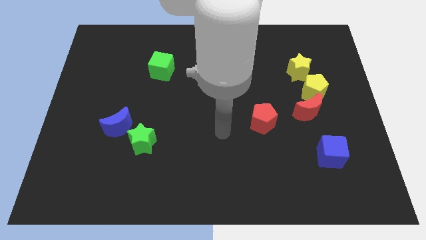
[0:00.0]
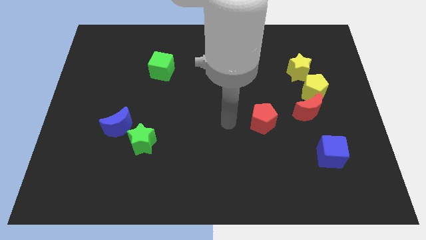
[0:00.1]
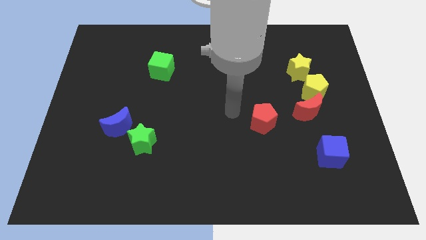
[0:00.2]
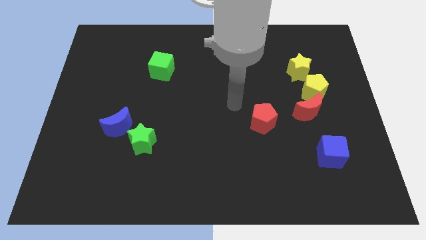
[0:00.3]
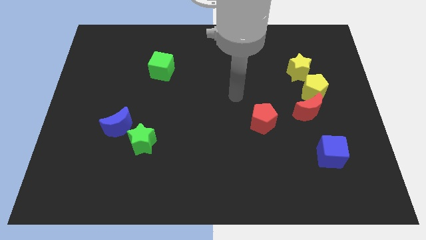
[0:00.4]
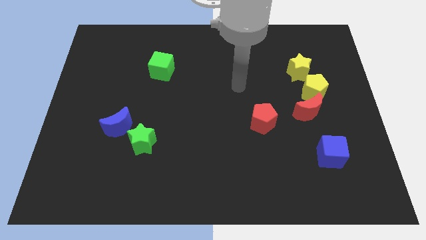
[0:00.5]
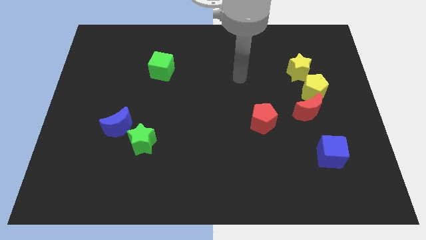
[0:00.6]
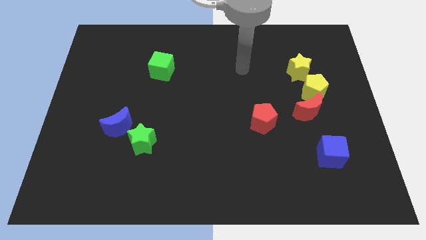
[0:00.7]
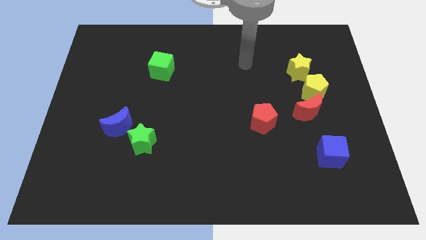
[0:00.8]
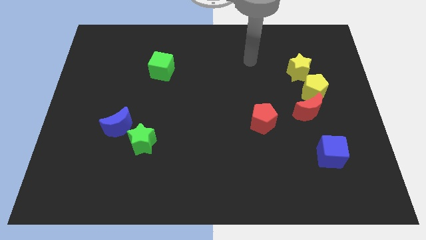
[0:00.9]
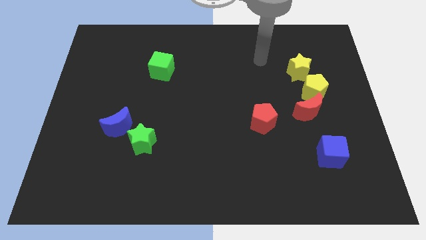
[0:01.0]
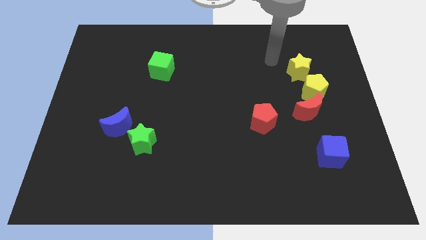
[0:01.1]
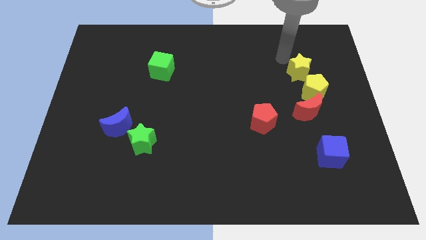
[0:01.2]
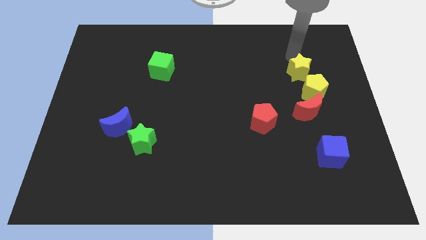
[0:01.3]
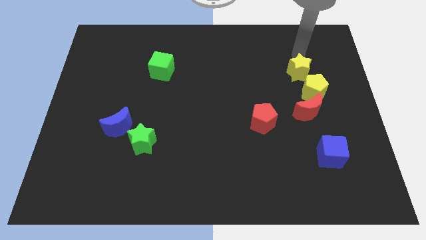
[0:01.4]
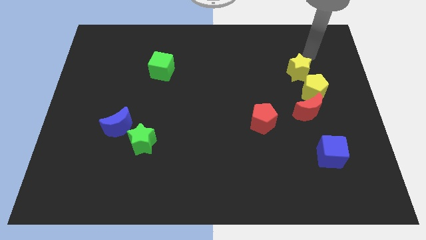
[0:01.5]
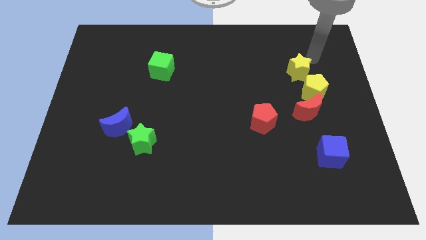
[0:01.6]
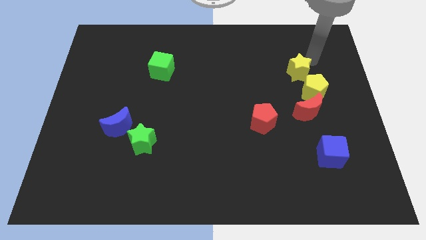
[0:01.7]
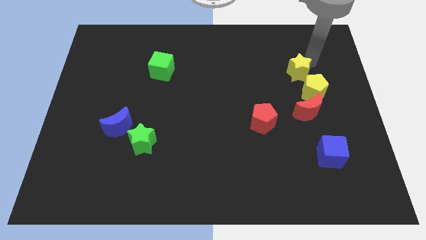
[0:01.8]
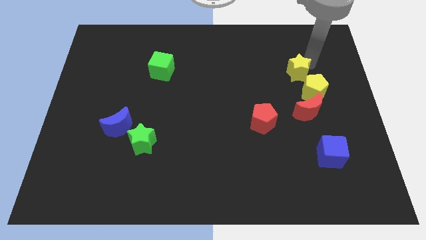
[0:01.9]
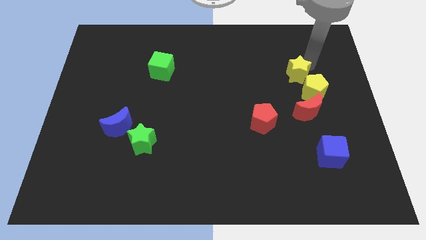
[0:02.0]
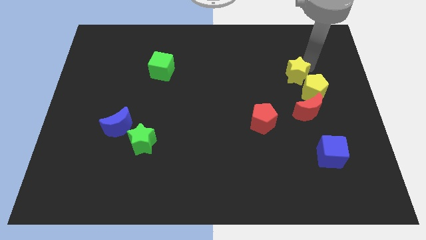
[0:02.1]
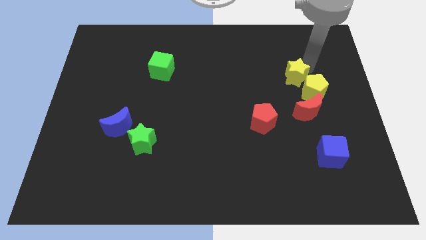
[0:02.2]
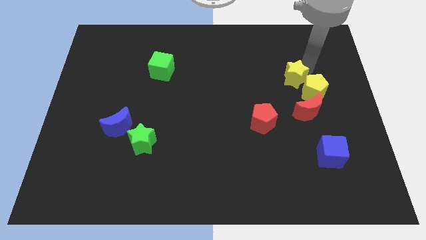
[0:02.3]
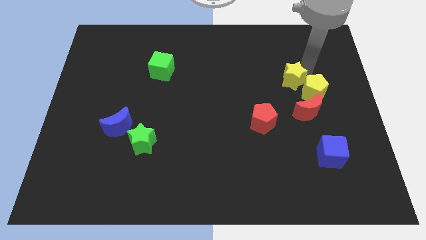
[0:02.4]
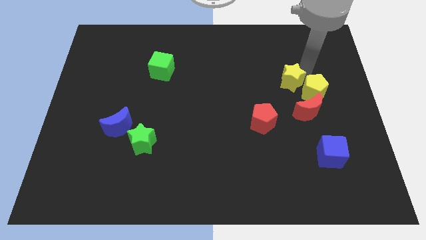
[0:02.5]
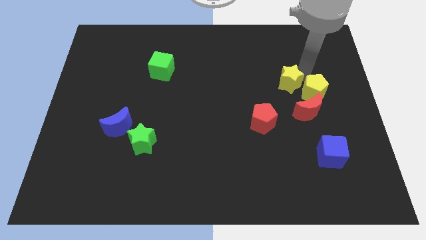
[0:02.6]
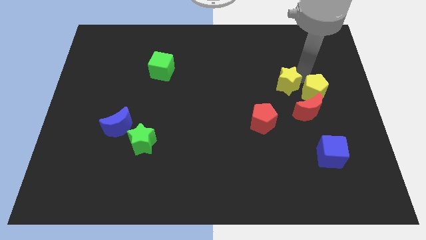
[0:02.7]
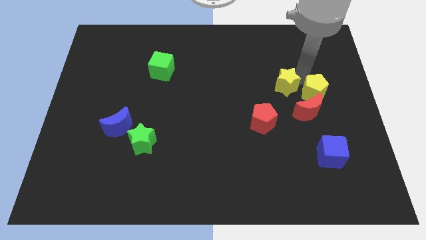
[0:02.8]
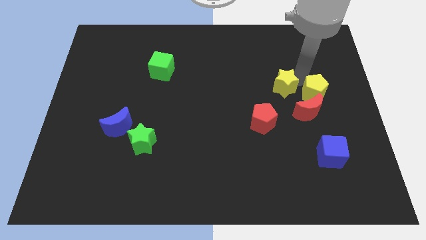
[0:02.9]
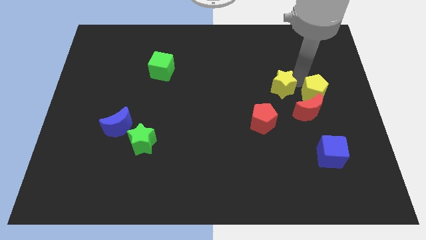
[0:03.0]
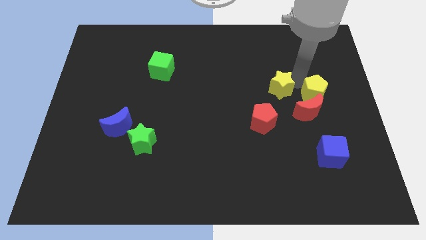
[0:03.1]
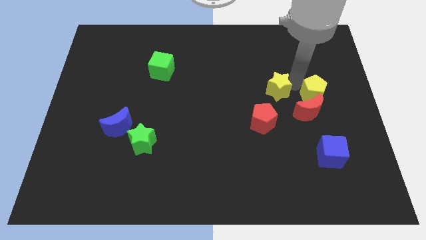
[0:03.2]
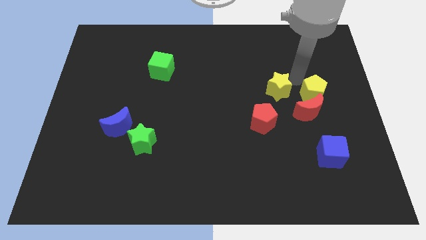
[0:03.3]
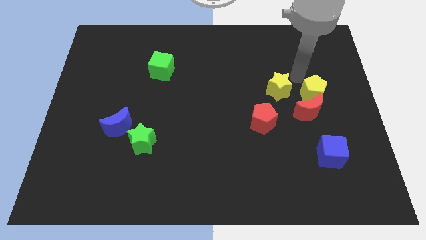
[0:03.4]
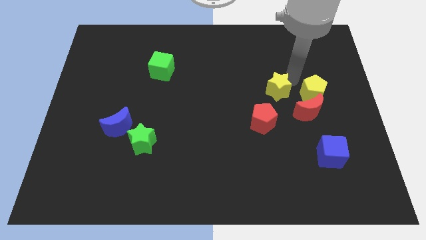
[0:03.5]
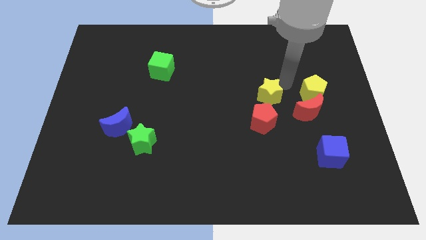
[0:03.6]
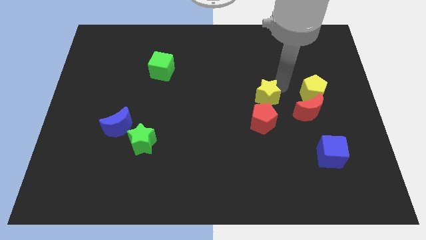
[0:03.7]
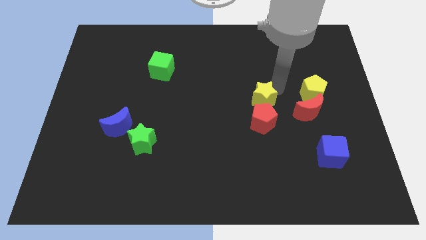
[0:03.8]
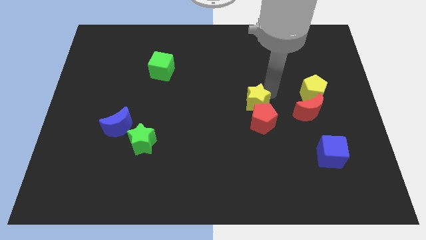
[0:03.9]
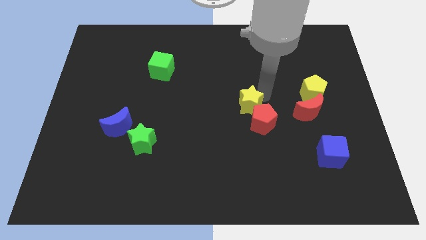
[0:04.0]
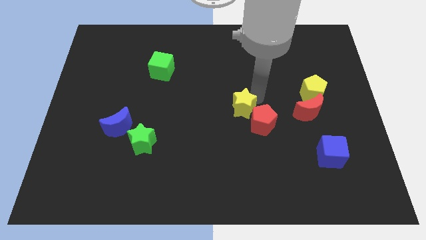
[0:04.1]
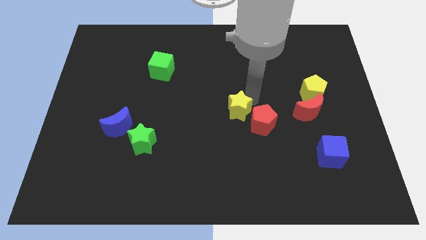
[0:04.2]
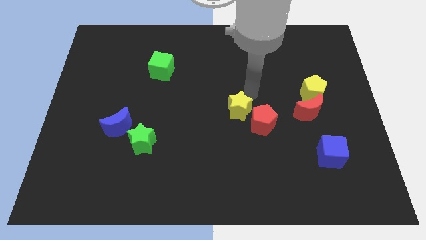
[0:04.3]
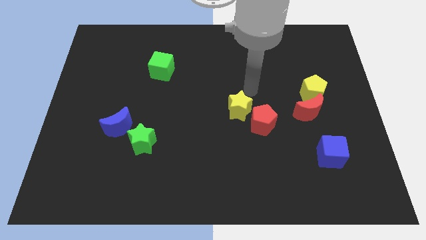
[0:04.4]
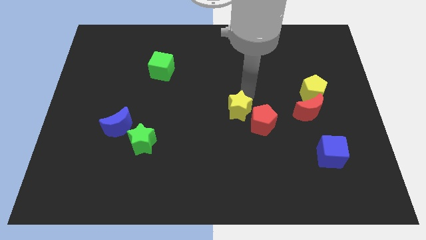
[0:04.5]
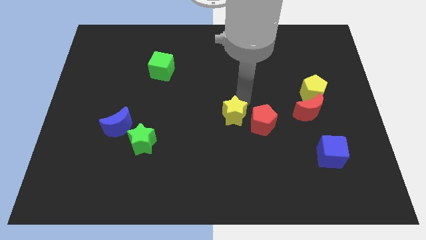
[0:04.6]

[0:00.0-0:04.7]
push the yellow star down and to the left

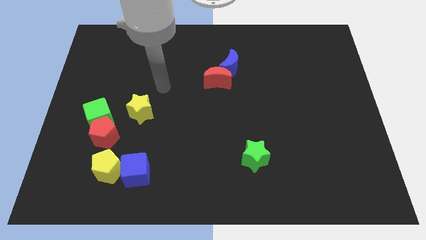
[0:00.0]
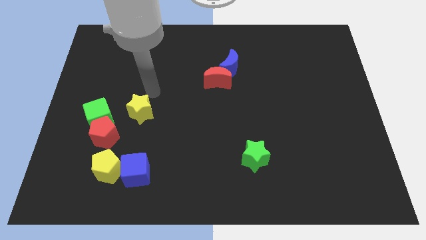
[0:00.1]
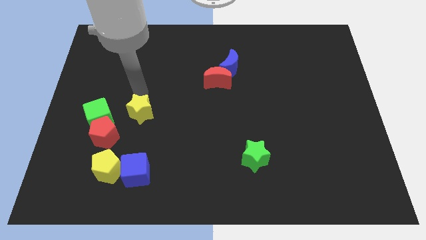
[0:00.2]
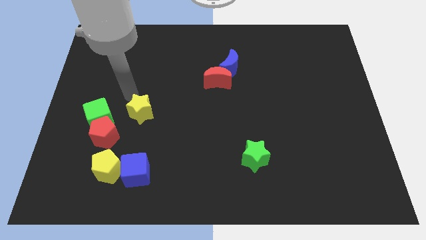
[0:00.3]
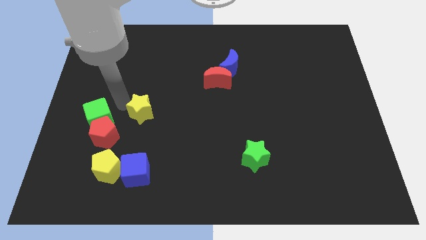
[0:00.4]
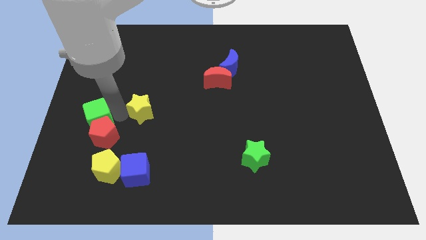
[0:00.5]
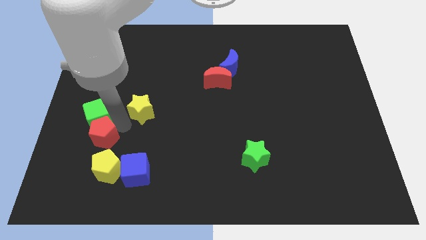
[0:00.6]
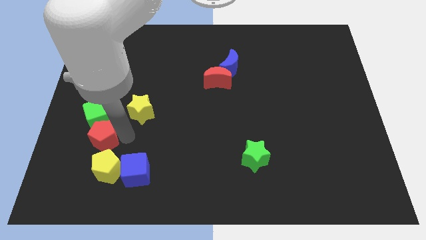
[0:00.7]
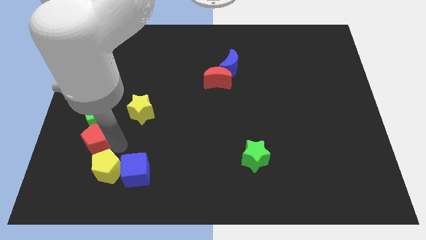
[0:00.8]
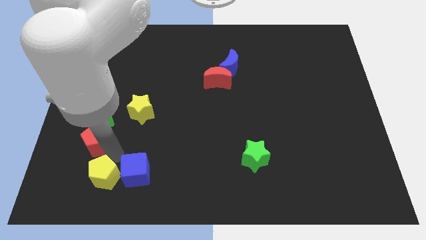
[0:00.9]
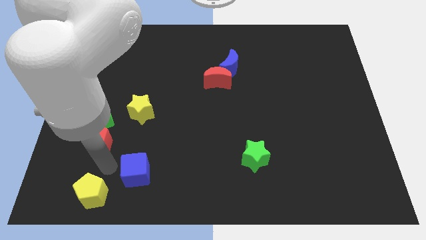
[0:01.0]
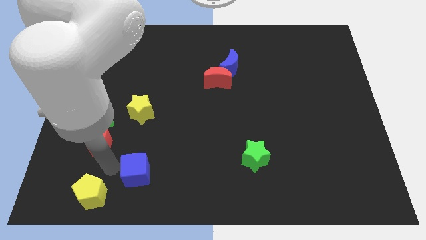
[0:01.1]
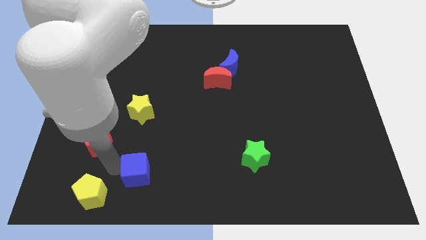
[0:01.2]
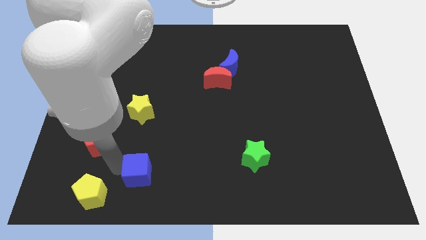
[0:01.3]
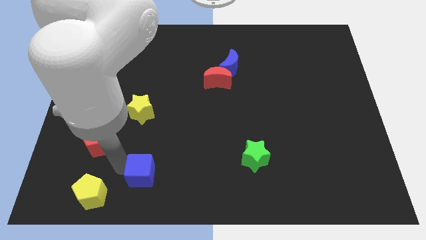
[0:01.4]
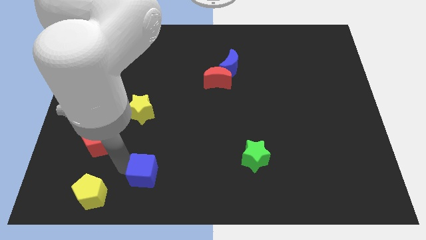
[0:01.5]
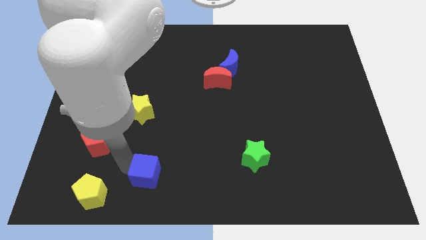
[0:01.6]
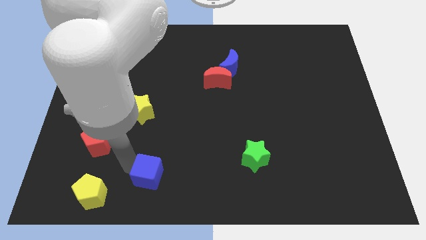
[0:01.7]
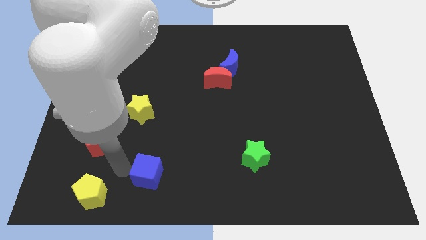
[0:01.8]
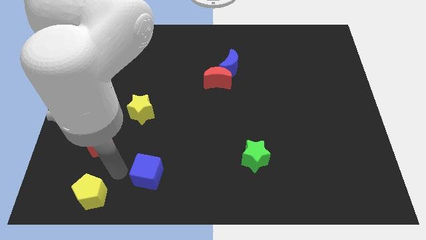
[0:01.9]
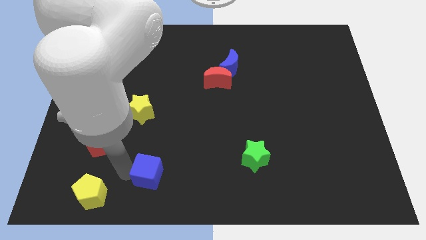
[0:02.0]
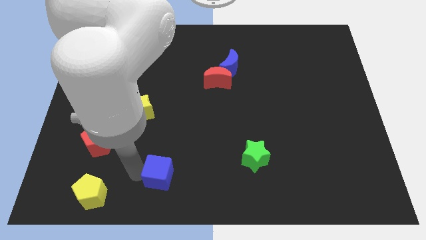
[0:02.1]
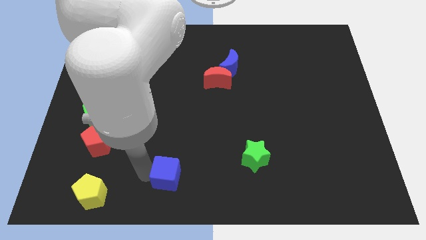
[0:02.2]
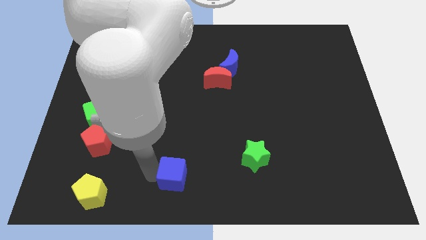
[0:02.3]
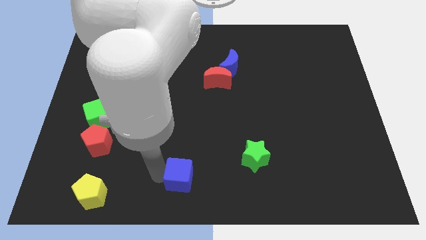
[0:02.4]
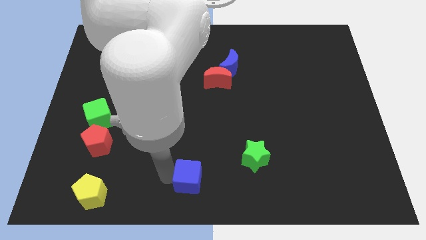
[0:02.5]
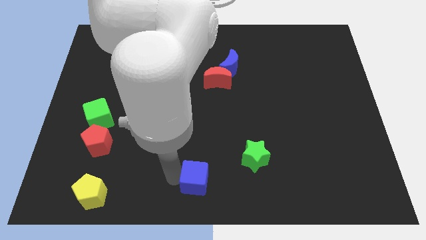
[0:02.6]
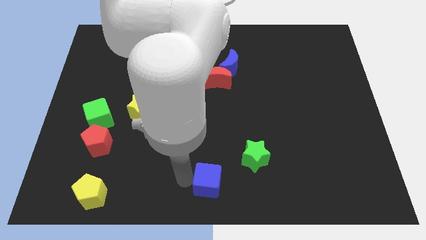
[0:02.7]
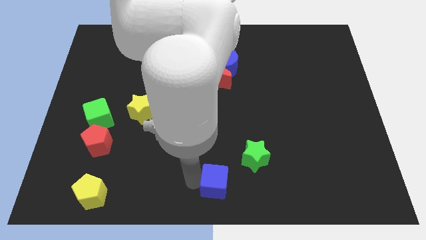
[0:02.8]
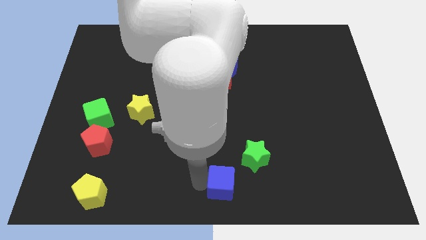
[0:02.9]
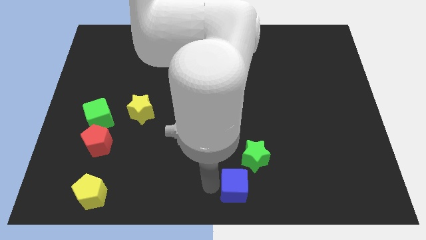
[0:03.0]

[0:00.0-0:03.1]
slide the blue cube to the right

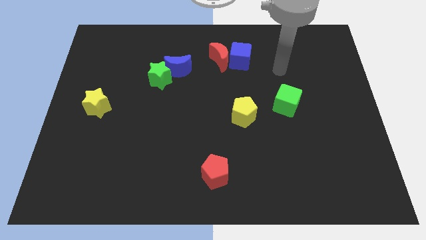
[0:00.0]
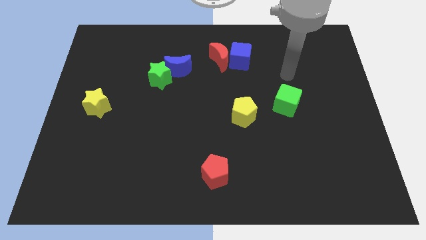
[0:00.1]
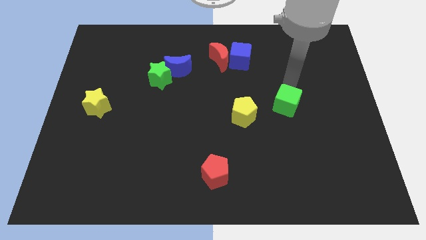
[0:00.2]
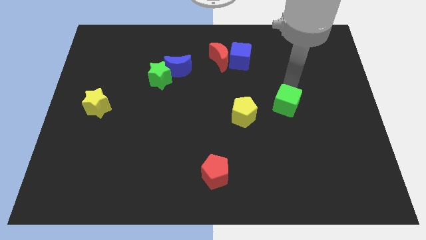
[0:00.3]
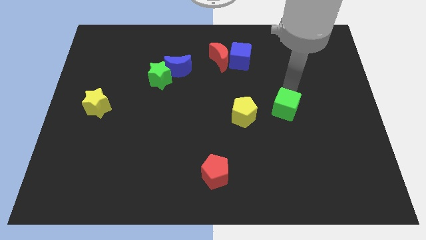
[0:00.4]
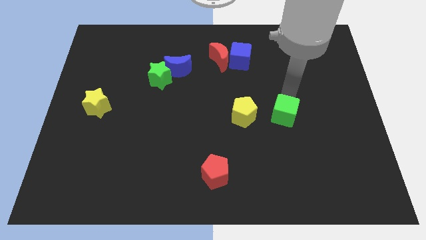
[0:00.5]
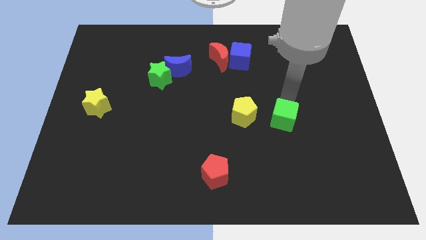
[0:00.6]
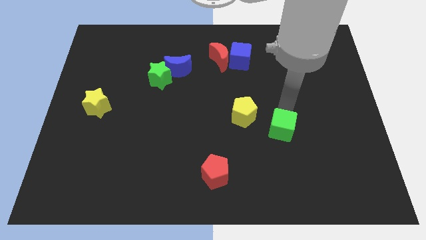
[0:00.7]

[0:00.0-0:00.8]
push the green cube a little bit downwards
